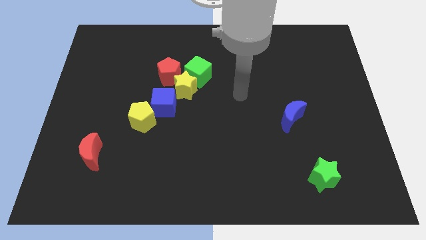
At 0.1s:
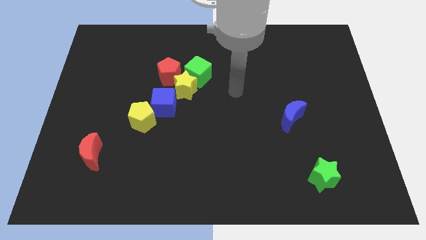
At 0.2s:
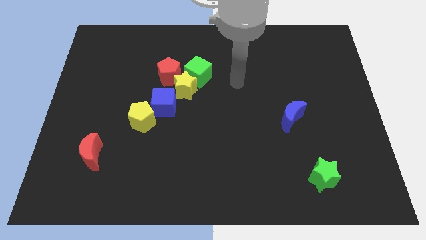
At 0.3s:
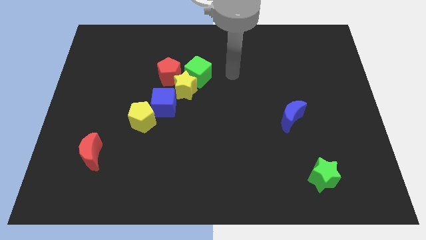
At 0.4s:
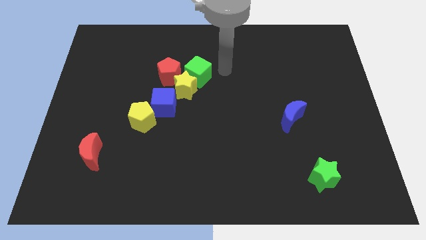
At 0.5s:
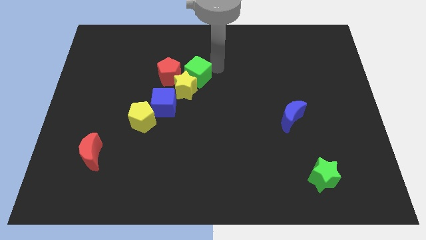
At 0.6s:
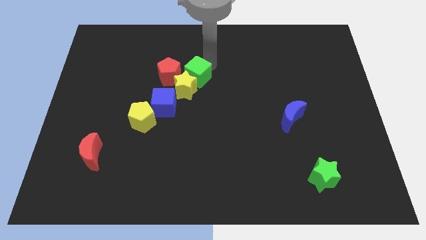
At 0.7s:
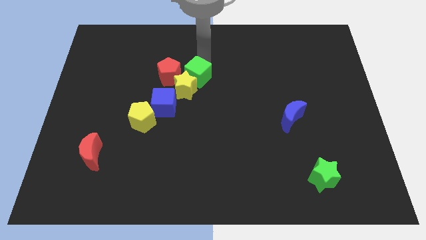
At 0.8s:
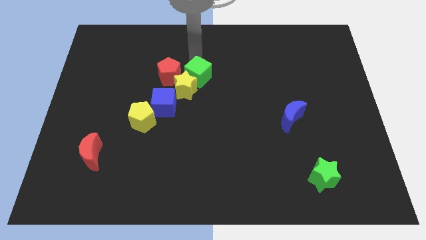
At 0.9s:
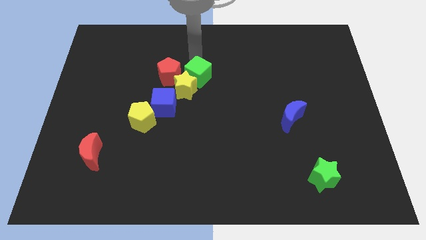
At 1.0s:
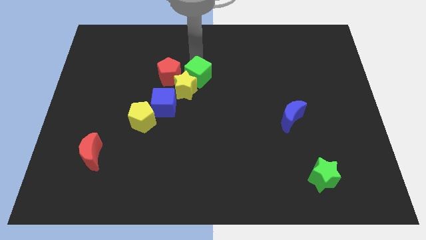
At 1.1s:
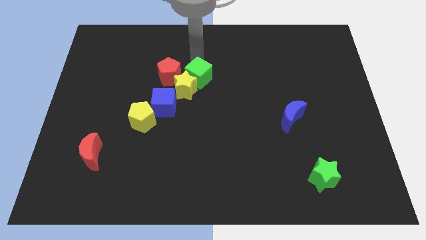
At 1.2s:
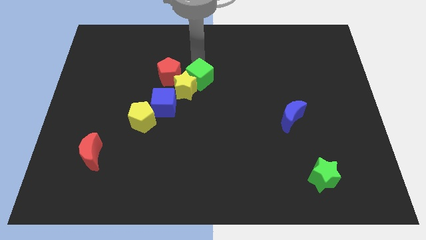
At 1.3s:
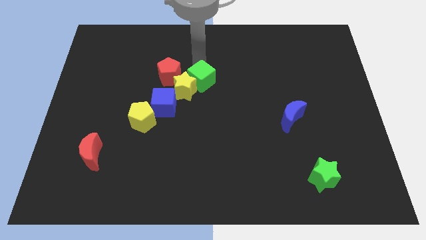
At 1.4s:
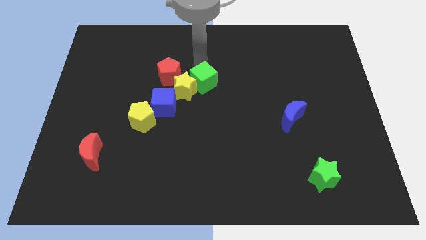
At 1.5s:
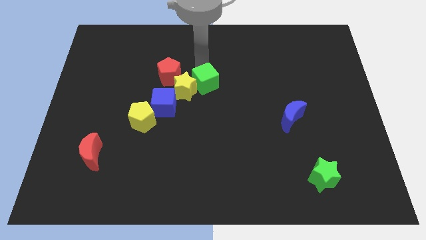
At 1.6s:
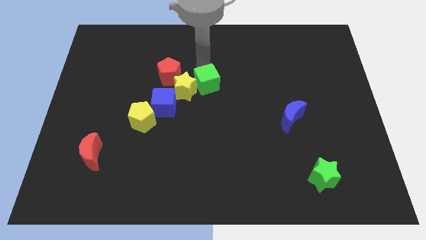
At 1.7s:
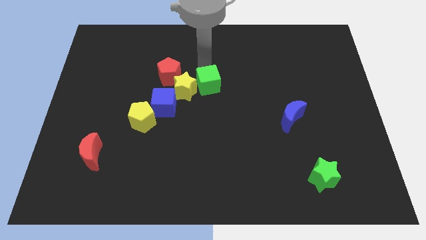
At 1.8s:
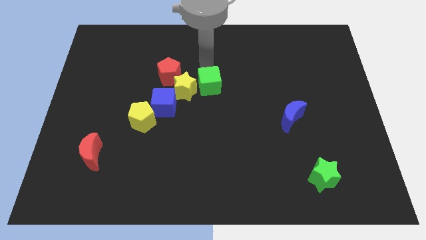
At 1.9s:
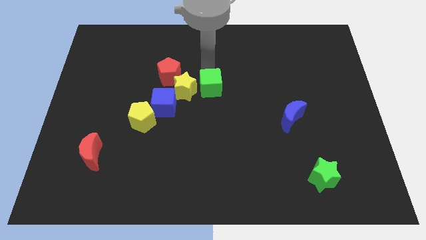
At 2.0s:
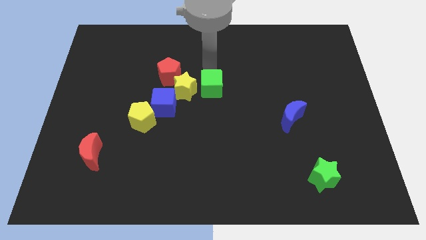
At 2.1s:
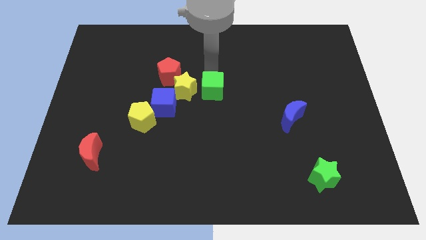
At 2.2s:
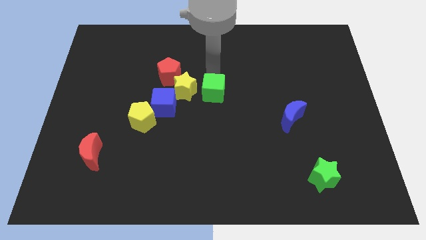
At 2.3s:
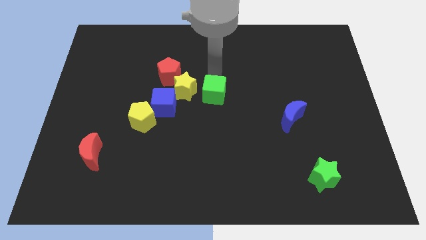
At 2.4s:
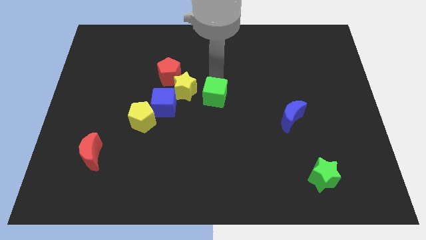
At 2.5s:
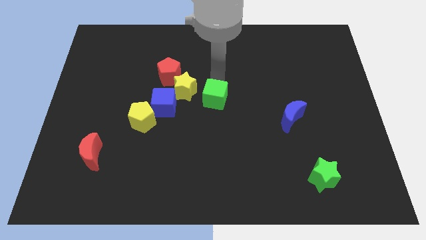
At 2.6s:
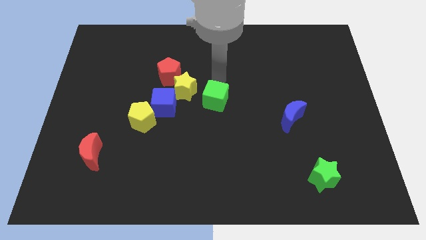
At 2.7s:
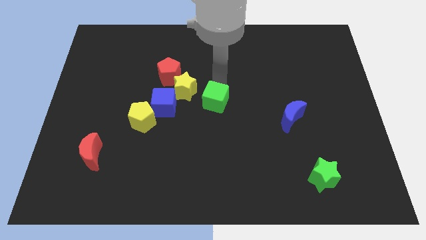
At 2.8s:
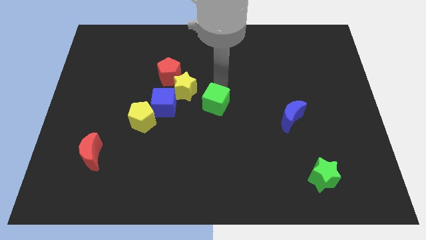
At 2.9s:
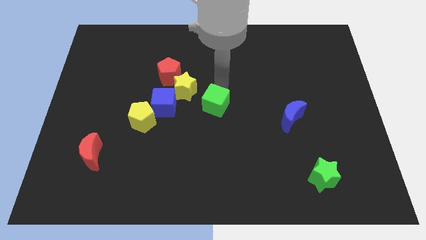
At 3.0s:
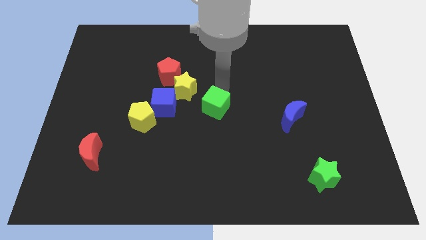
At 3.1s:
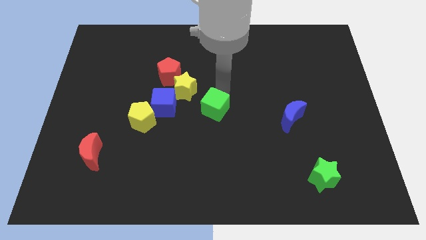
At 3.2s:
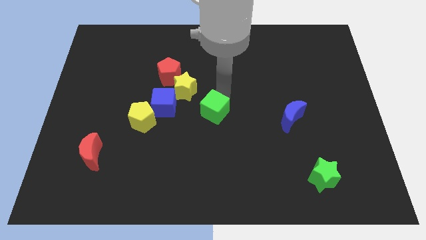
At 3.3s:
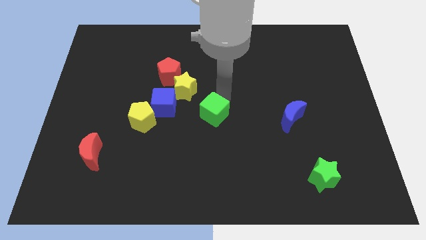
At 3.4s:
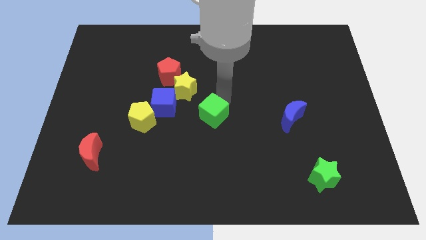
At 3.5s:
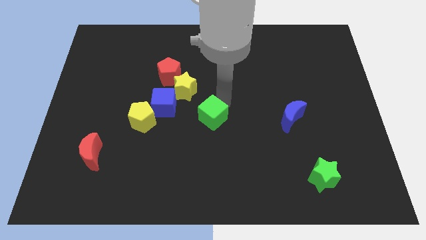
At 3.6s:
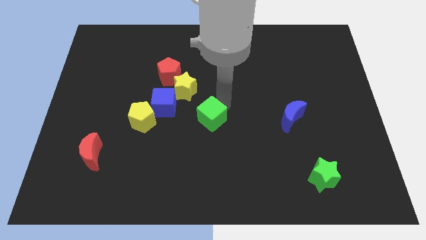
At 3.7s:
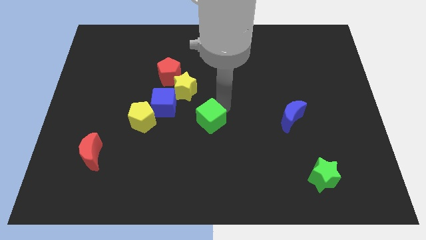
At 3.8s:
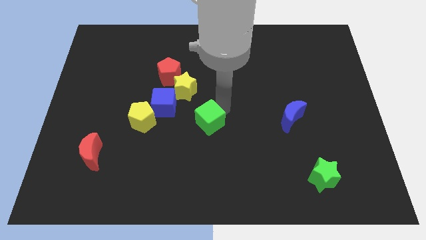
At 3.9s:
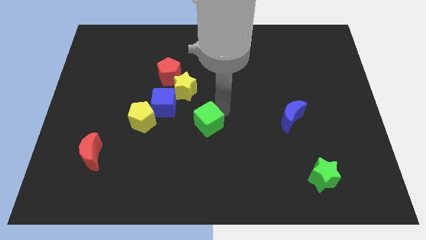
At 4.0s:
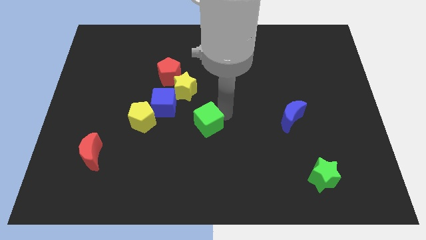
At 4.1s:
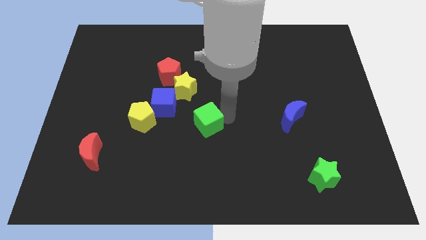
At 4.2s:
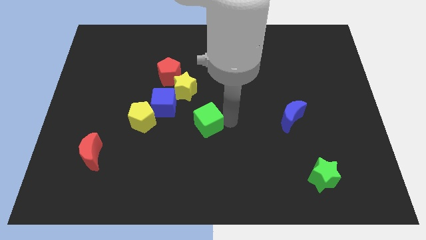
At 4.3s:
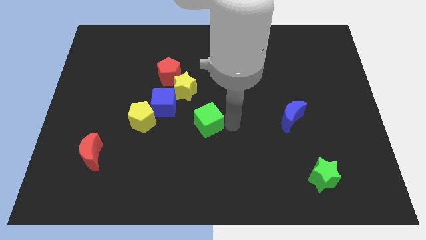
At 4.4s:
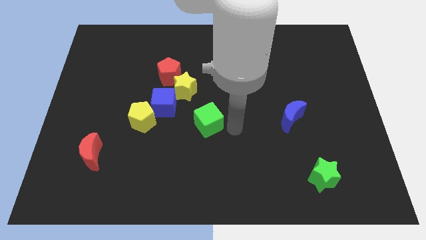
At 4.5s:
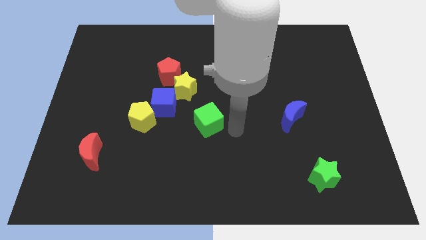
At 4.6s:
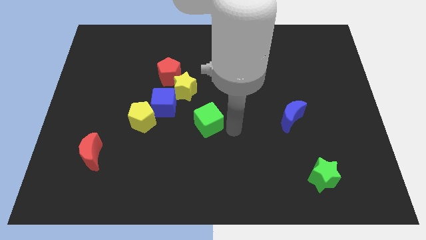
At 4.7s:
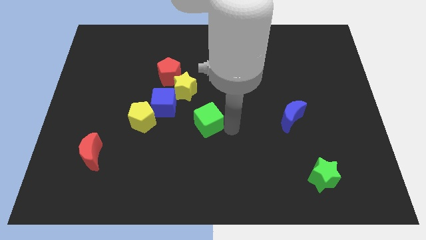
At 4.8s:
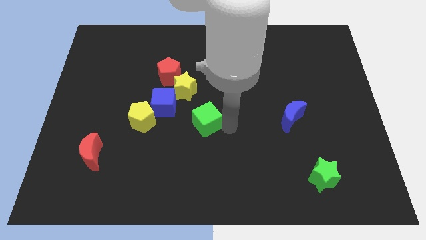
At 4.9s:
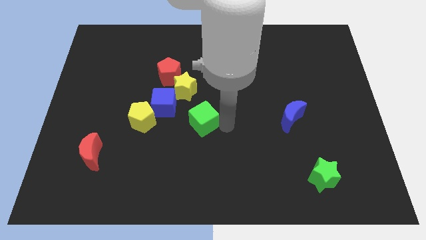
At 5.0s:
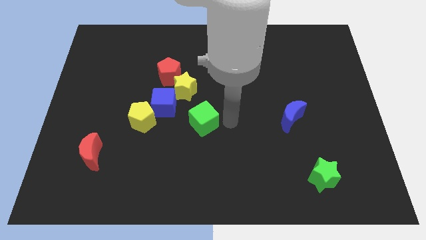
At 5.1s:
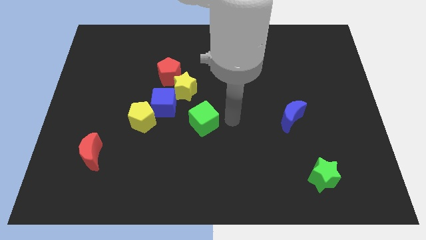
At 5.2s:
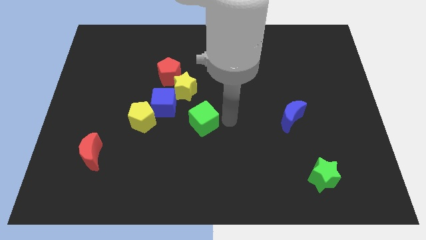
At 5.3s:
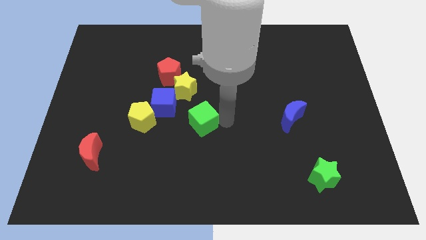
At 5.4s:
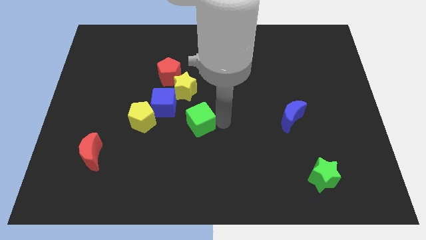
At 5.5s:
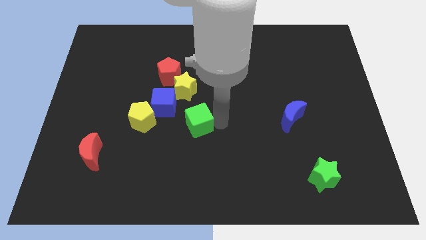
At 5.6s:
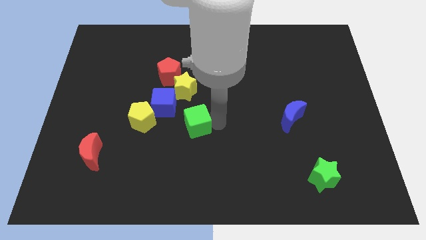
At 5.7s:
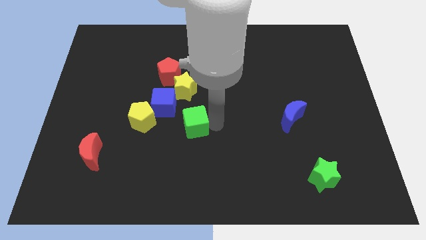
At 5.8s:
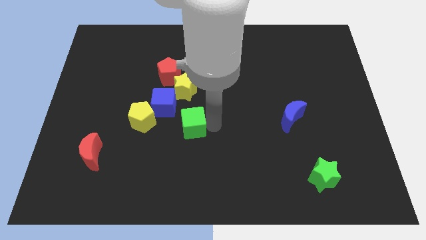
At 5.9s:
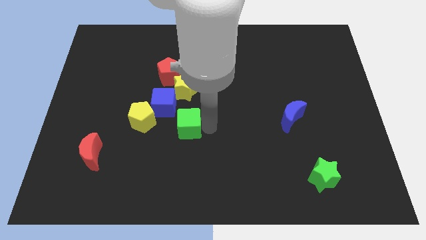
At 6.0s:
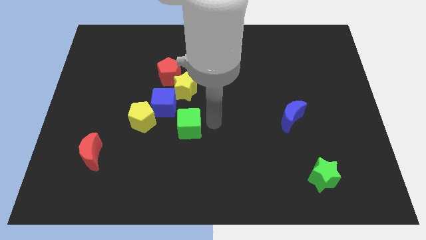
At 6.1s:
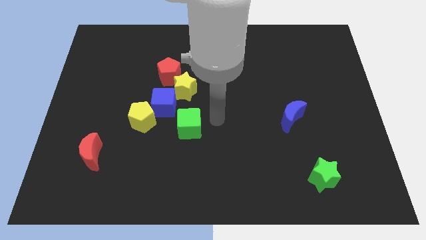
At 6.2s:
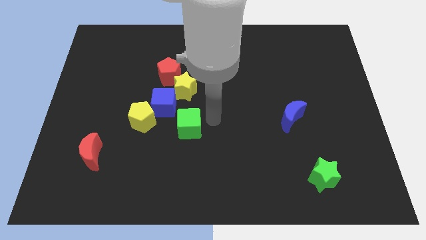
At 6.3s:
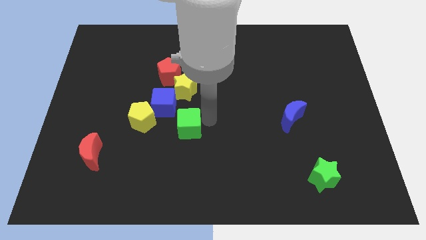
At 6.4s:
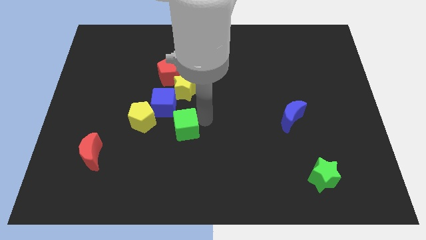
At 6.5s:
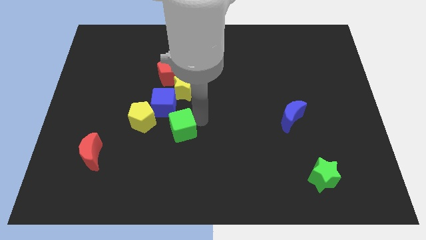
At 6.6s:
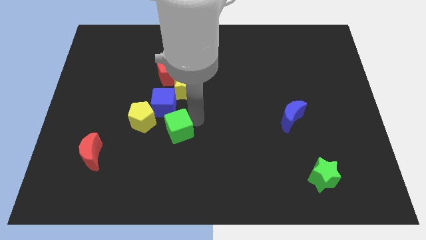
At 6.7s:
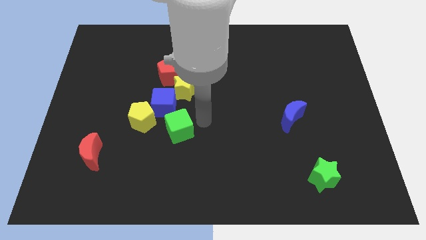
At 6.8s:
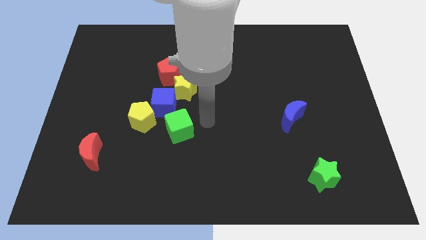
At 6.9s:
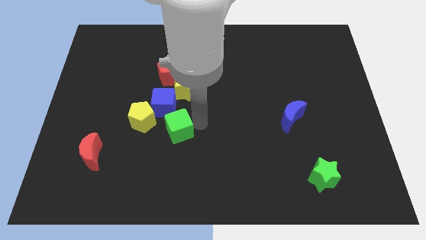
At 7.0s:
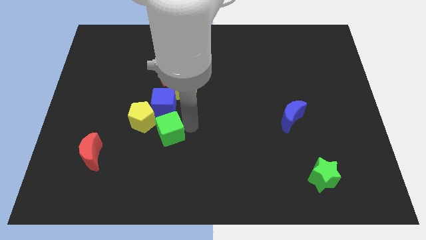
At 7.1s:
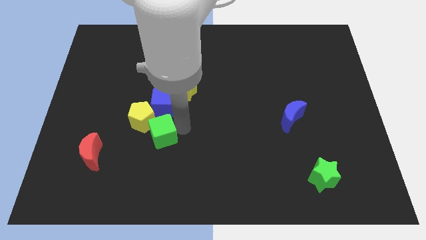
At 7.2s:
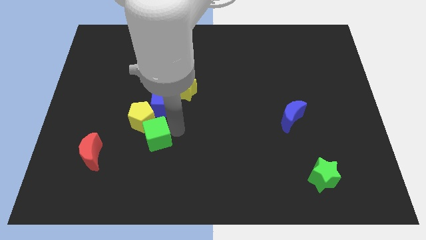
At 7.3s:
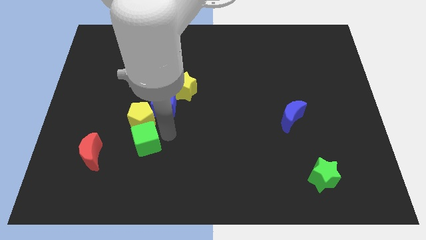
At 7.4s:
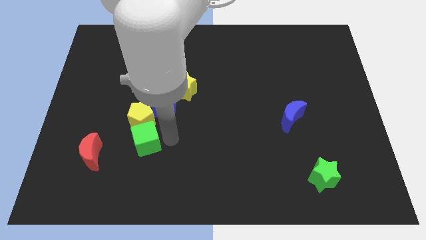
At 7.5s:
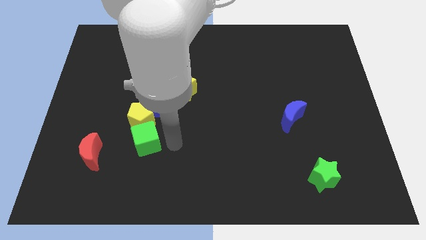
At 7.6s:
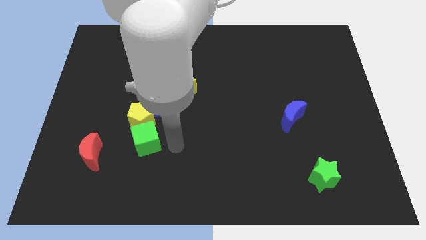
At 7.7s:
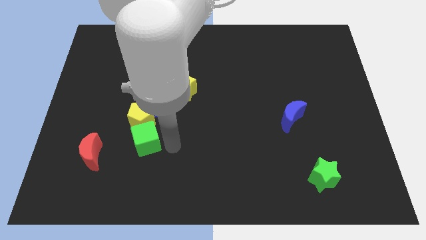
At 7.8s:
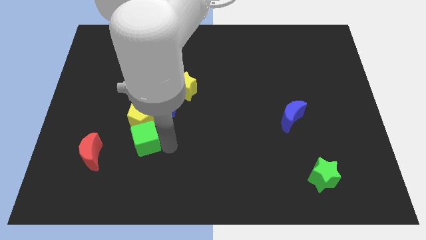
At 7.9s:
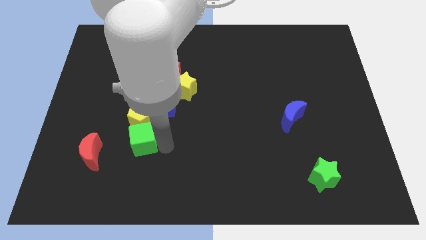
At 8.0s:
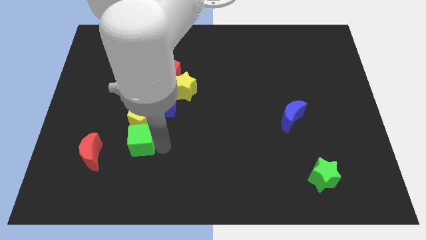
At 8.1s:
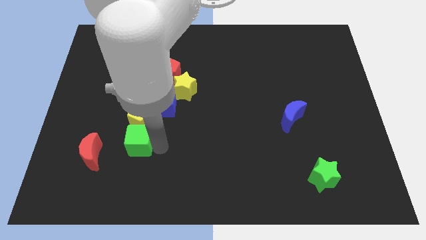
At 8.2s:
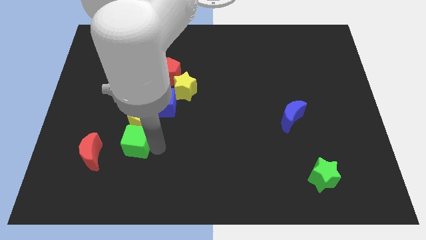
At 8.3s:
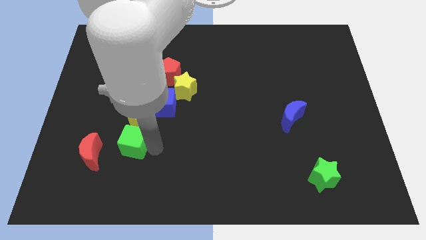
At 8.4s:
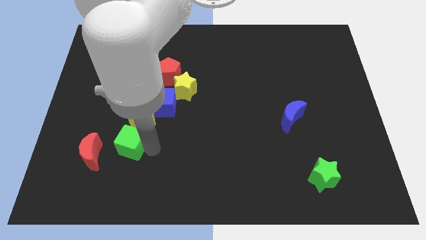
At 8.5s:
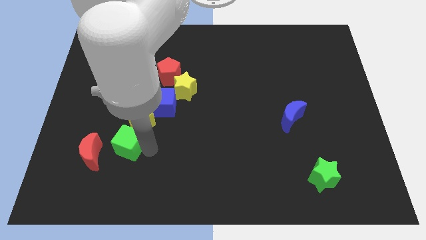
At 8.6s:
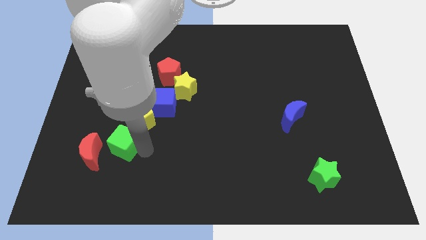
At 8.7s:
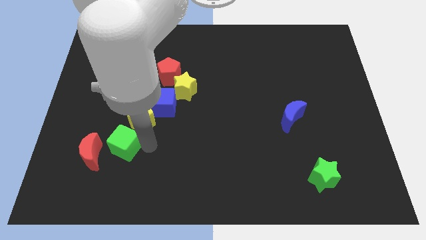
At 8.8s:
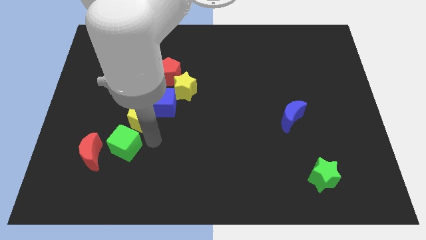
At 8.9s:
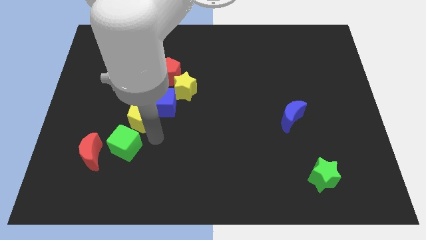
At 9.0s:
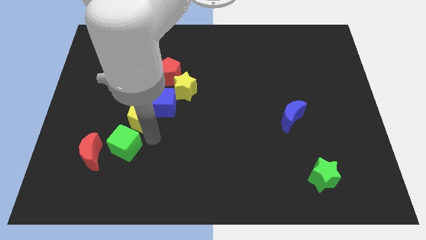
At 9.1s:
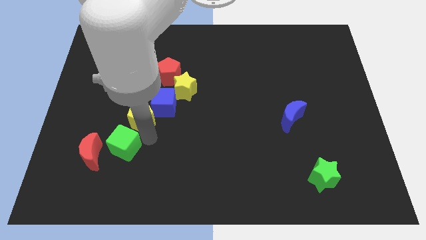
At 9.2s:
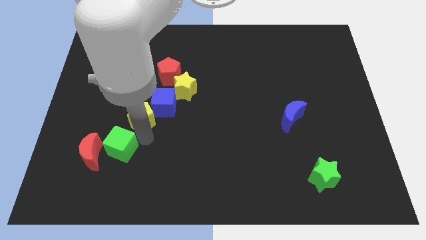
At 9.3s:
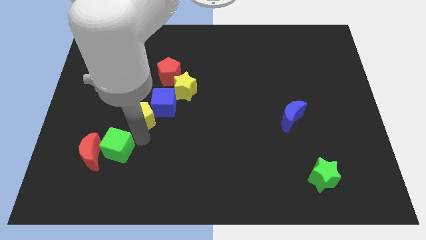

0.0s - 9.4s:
slide the green cube close to the red moon
